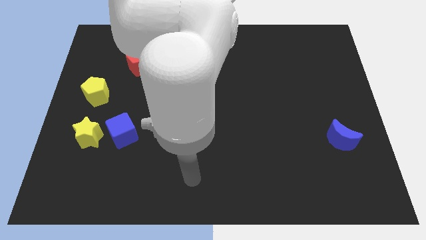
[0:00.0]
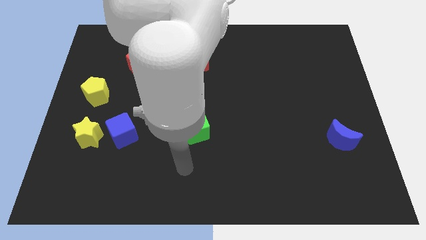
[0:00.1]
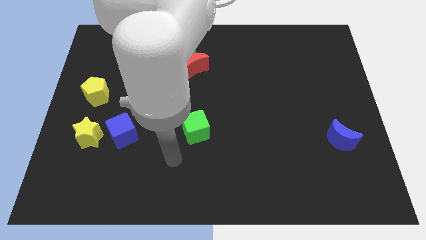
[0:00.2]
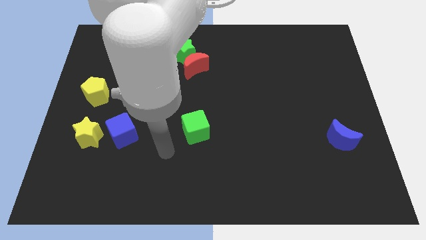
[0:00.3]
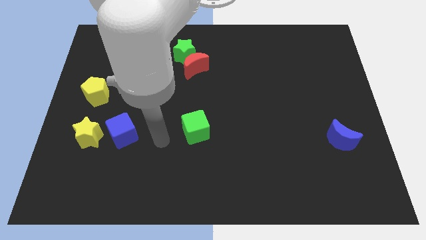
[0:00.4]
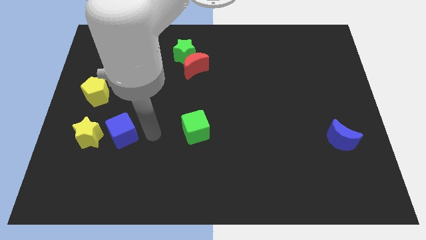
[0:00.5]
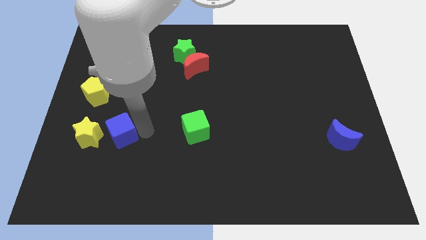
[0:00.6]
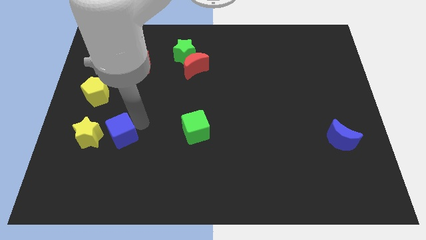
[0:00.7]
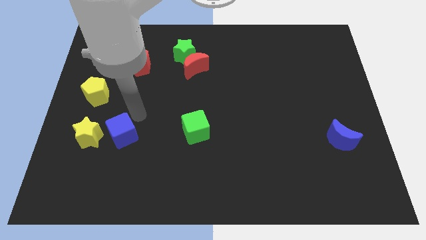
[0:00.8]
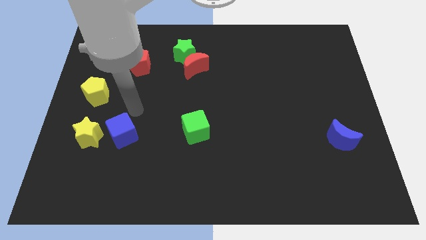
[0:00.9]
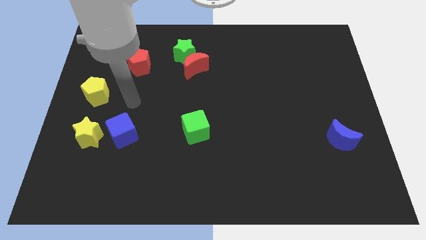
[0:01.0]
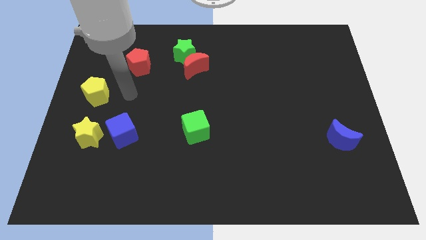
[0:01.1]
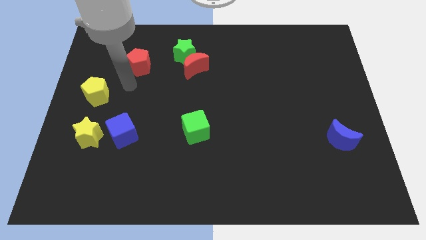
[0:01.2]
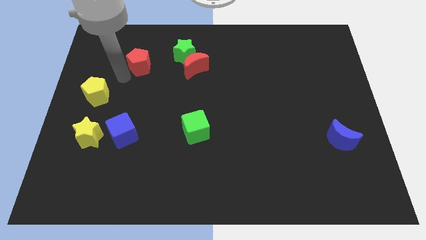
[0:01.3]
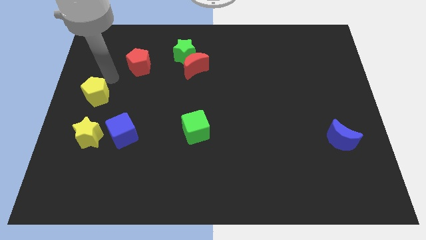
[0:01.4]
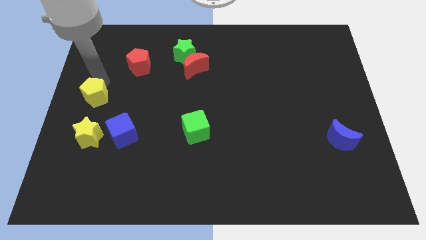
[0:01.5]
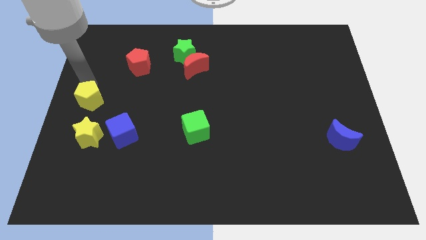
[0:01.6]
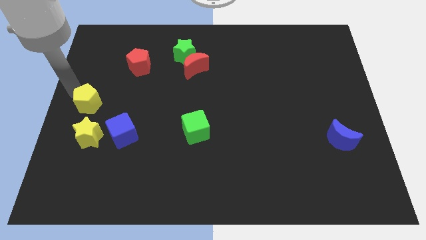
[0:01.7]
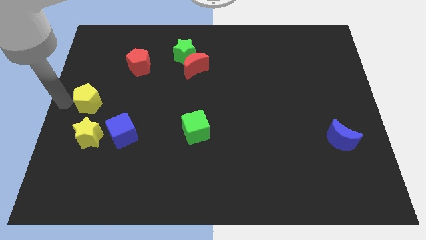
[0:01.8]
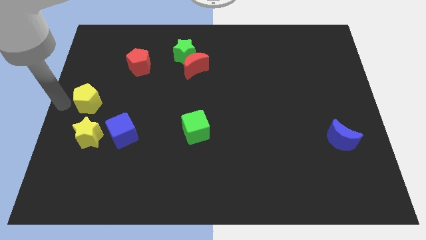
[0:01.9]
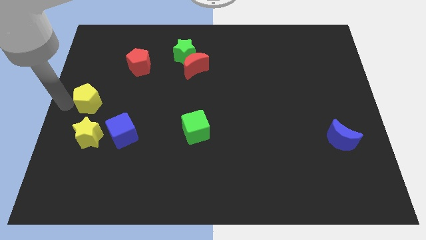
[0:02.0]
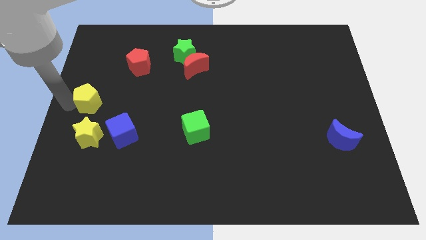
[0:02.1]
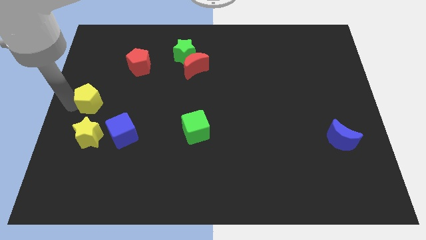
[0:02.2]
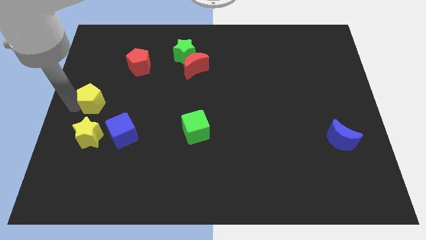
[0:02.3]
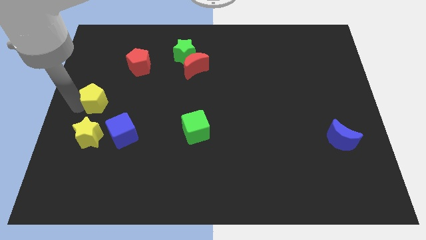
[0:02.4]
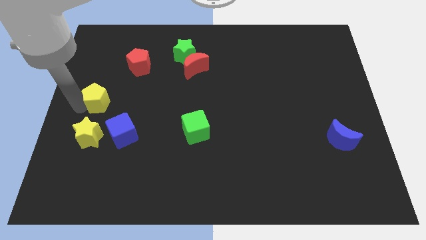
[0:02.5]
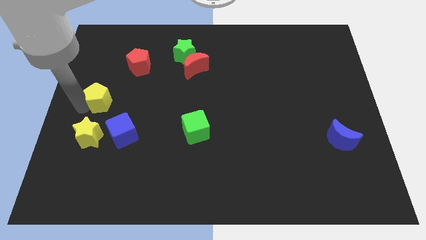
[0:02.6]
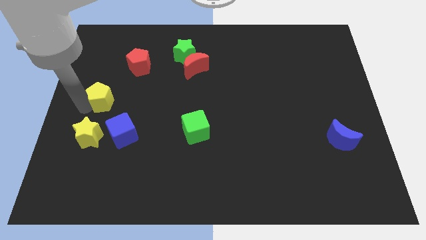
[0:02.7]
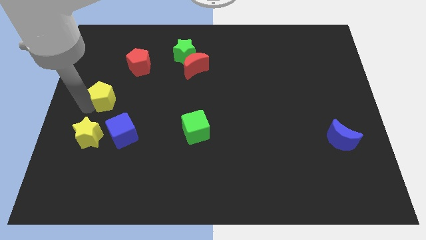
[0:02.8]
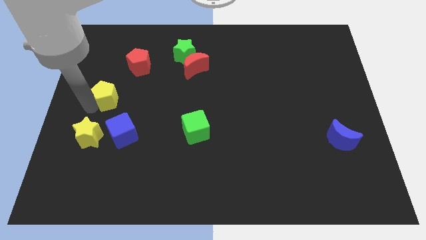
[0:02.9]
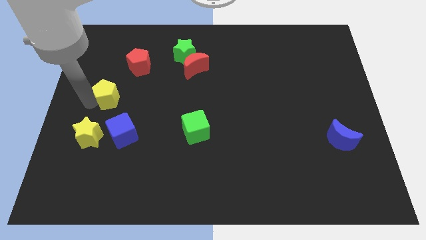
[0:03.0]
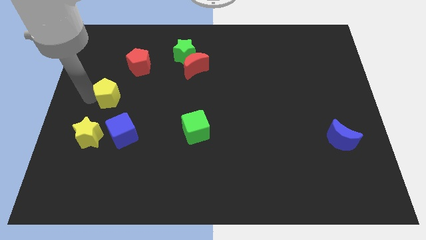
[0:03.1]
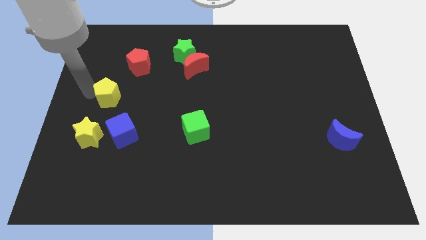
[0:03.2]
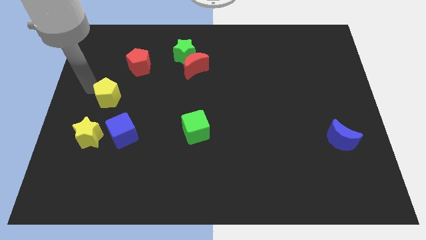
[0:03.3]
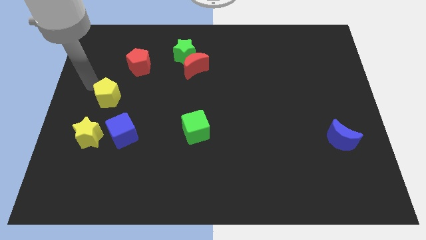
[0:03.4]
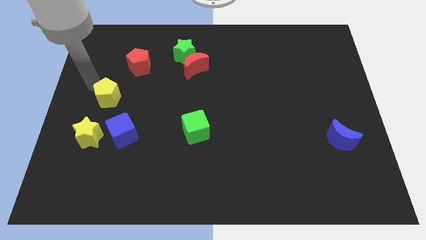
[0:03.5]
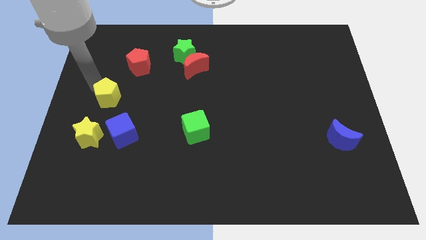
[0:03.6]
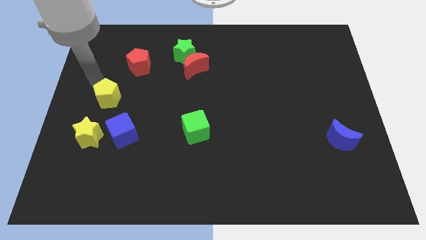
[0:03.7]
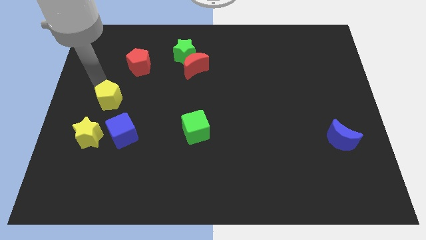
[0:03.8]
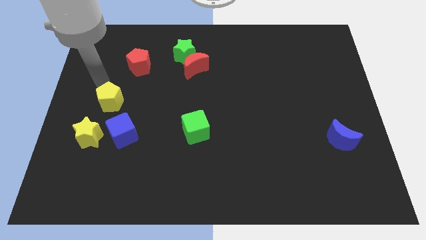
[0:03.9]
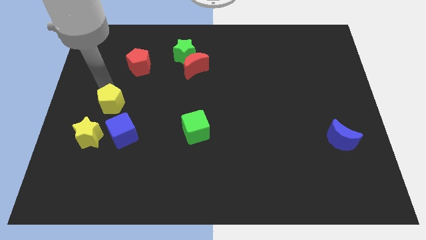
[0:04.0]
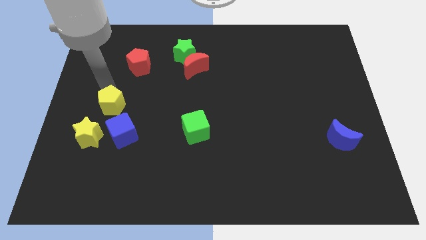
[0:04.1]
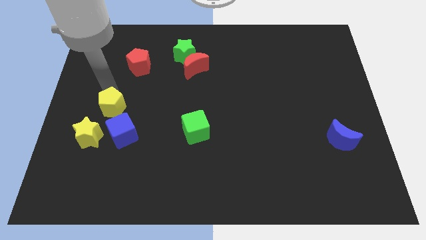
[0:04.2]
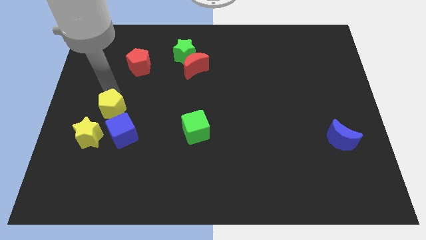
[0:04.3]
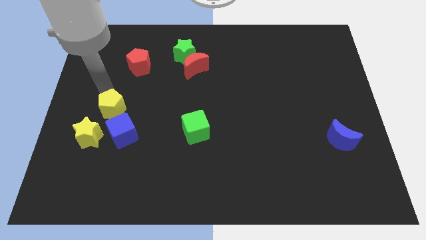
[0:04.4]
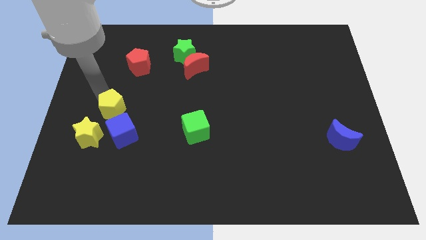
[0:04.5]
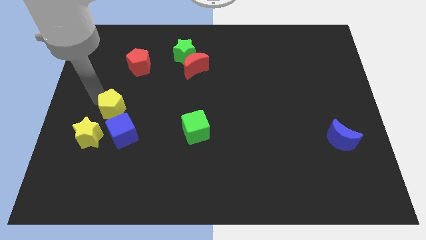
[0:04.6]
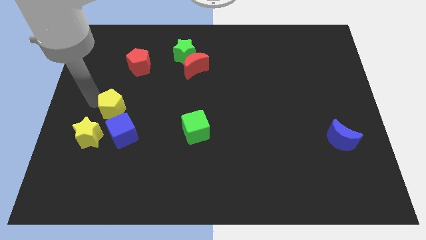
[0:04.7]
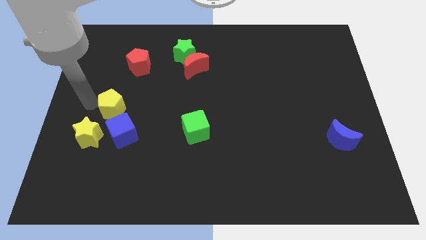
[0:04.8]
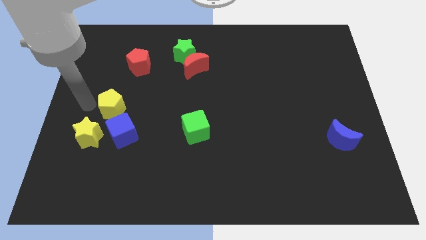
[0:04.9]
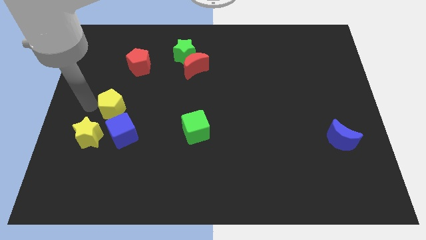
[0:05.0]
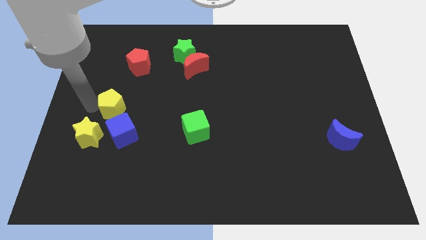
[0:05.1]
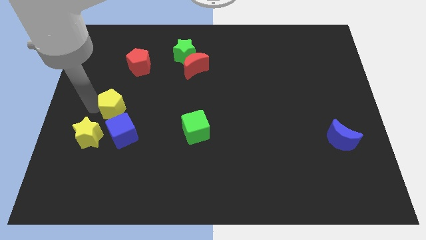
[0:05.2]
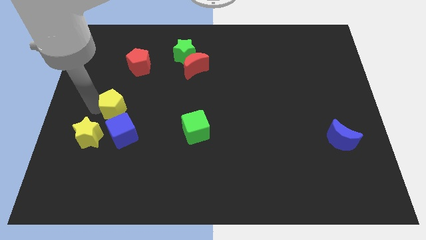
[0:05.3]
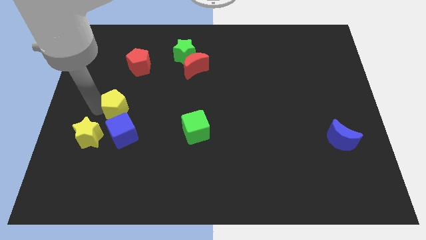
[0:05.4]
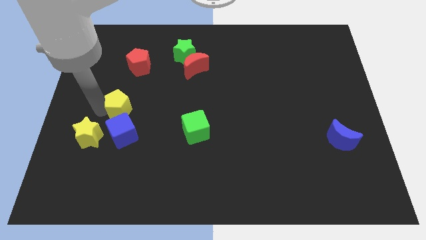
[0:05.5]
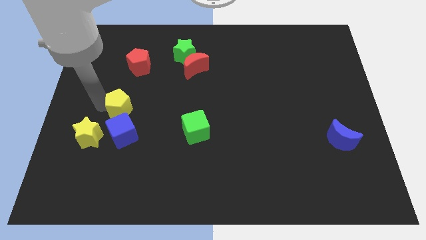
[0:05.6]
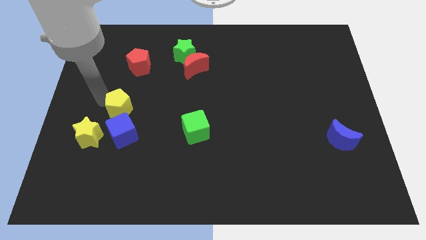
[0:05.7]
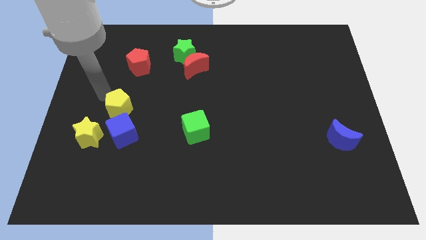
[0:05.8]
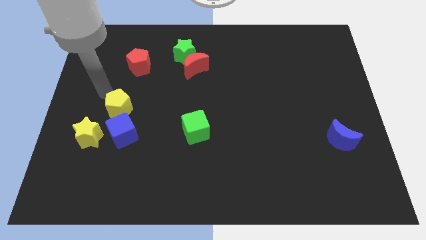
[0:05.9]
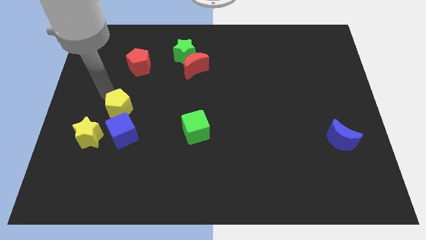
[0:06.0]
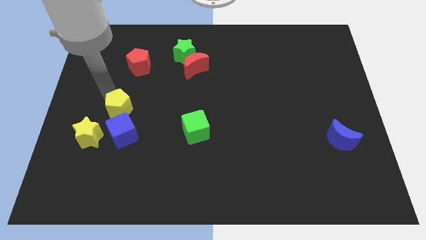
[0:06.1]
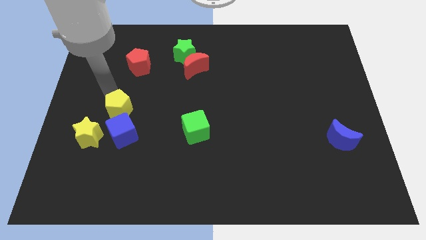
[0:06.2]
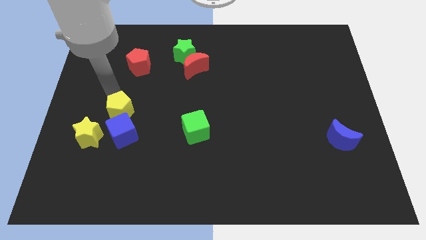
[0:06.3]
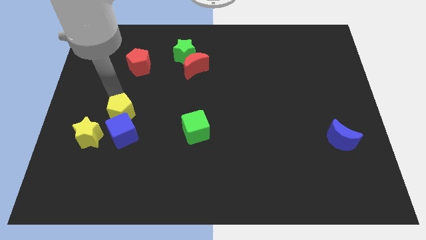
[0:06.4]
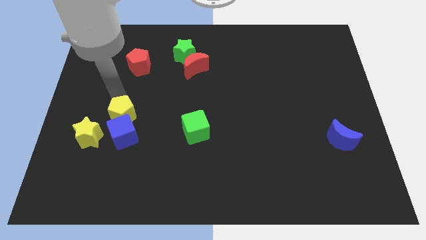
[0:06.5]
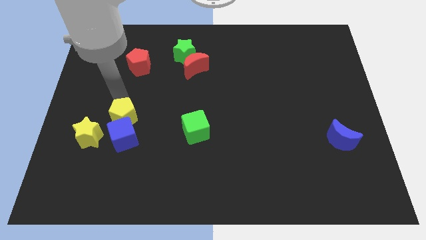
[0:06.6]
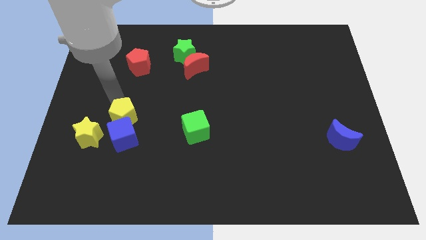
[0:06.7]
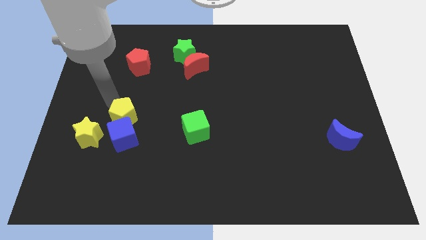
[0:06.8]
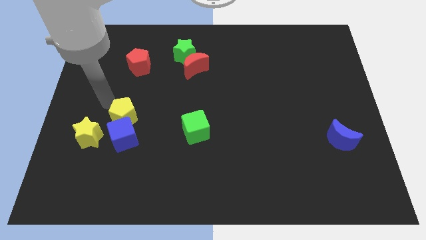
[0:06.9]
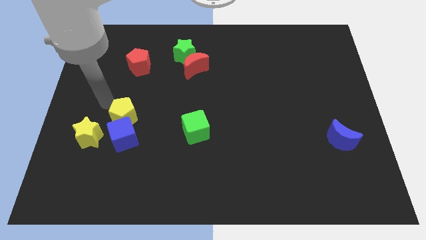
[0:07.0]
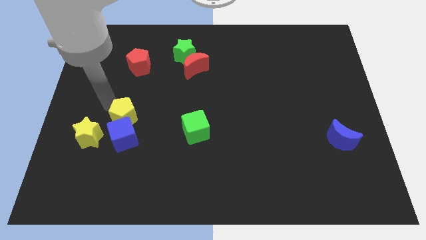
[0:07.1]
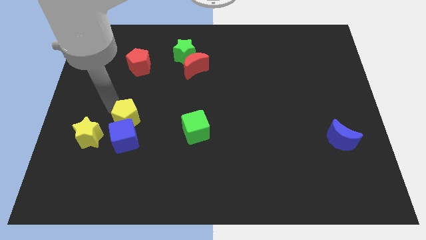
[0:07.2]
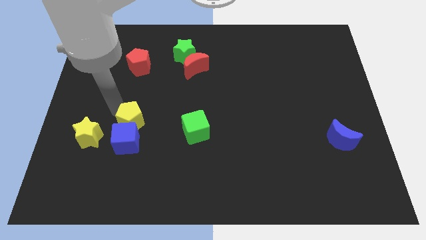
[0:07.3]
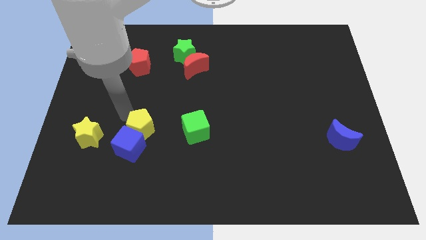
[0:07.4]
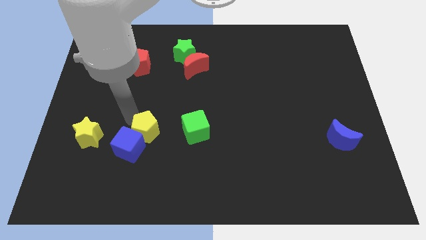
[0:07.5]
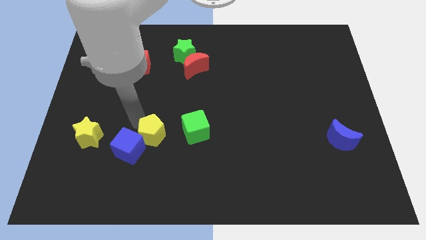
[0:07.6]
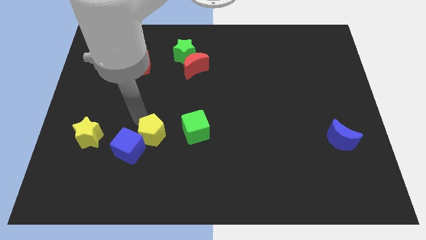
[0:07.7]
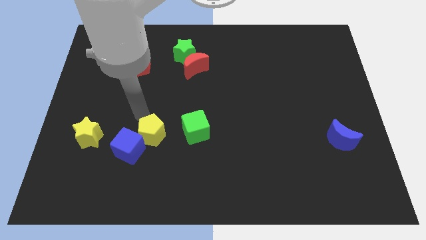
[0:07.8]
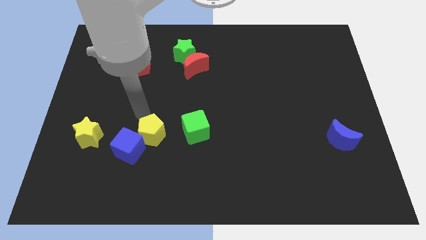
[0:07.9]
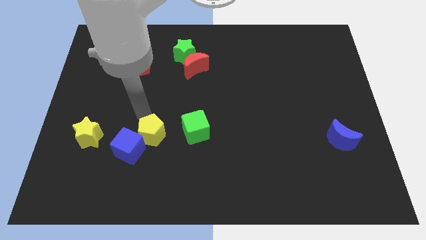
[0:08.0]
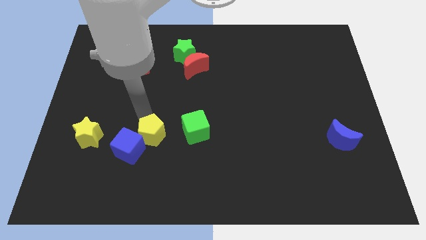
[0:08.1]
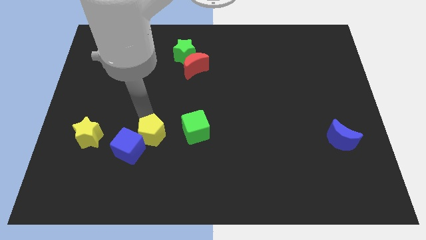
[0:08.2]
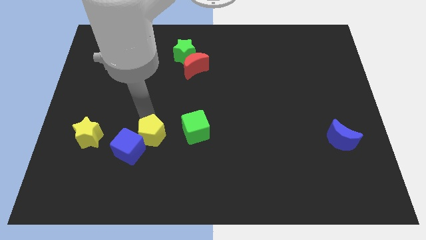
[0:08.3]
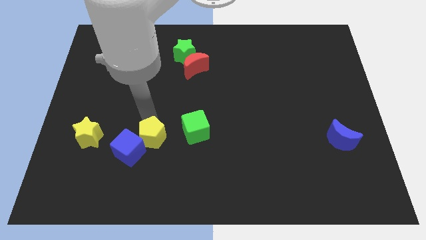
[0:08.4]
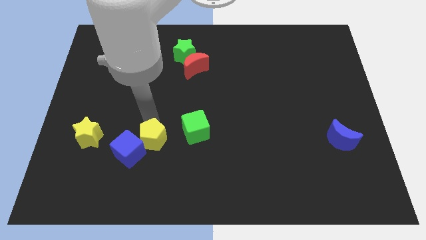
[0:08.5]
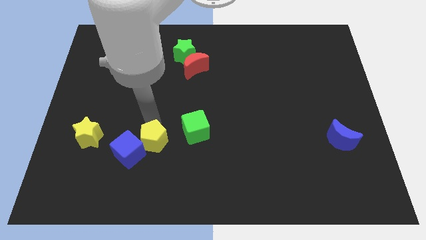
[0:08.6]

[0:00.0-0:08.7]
push the yellow pentagon diagonally downwards and to the right
